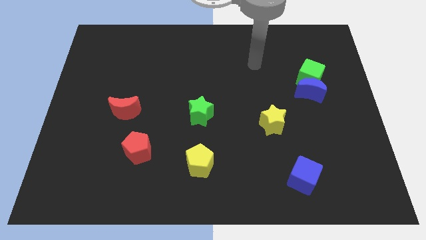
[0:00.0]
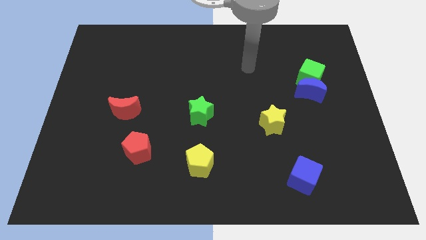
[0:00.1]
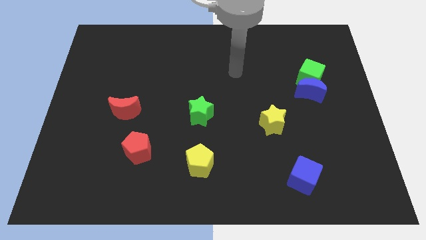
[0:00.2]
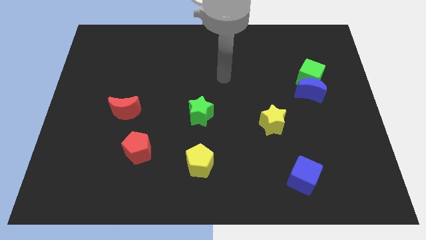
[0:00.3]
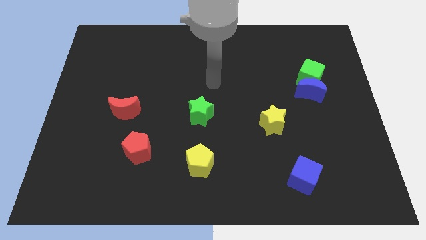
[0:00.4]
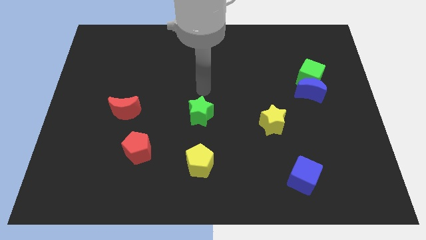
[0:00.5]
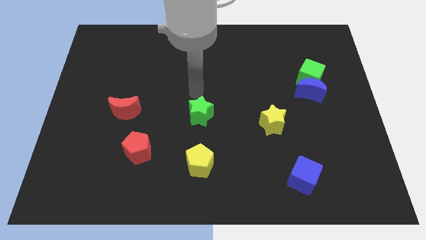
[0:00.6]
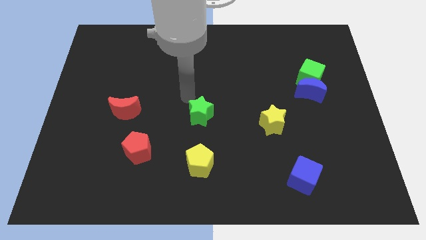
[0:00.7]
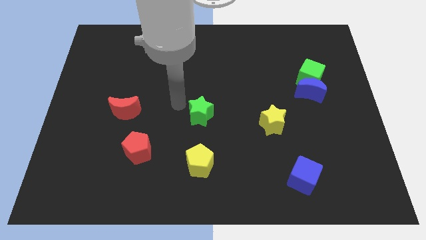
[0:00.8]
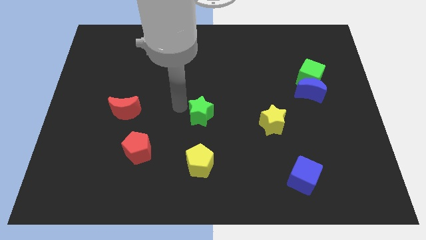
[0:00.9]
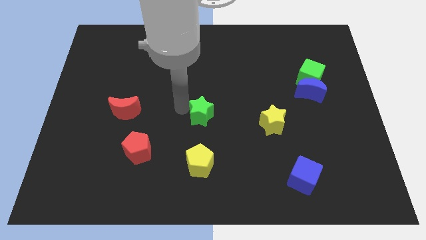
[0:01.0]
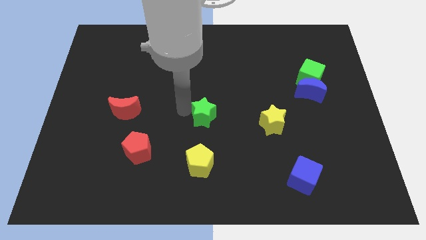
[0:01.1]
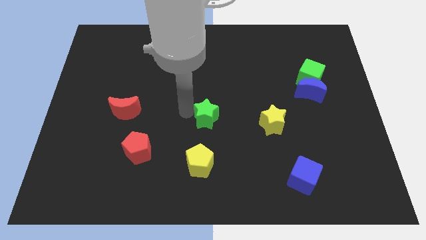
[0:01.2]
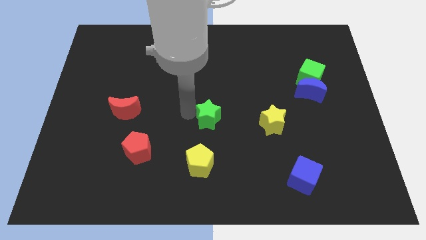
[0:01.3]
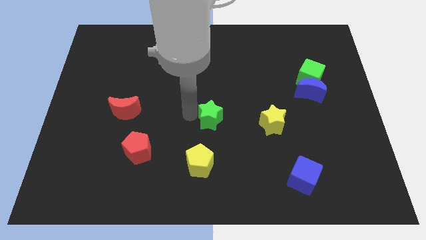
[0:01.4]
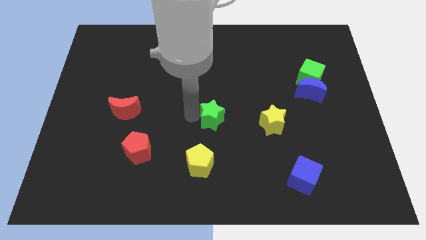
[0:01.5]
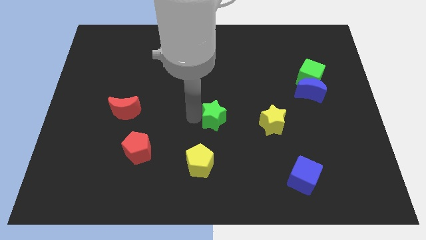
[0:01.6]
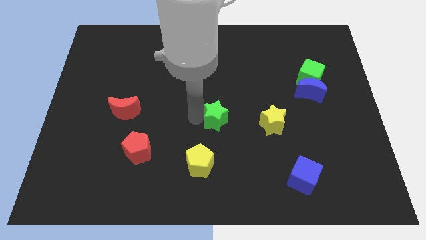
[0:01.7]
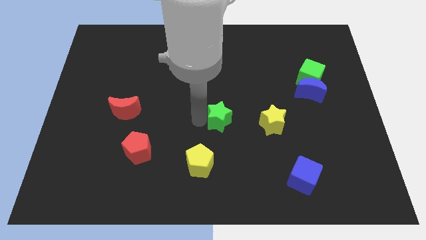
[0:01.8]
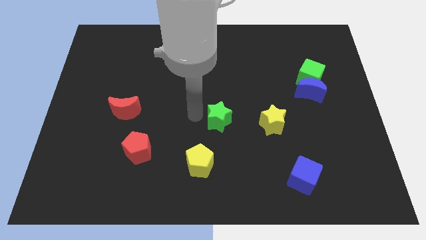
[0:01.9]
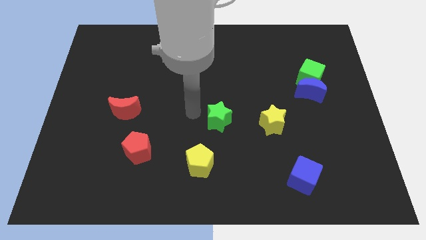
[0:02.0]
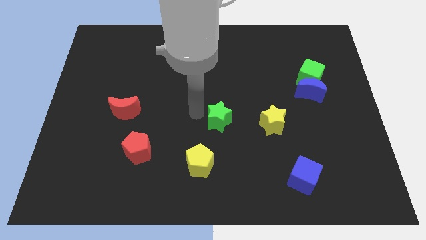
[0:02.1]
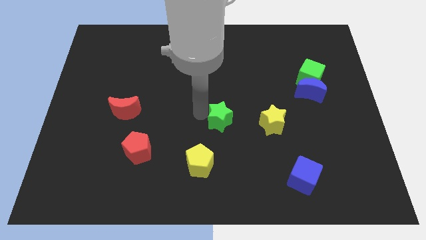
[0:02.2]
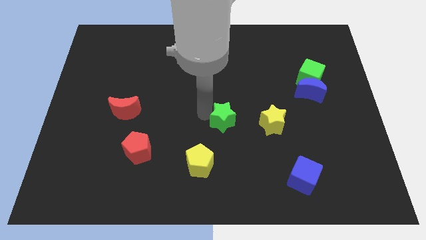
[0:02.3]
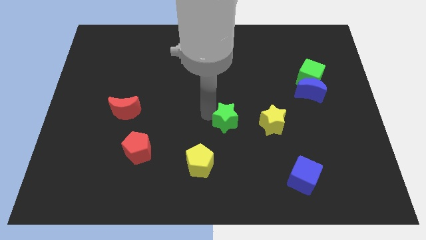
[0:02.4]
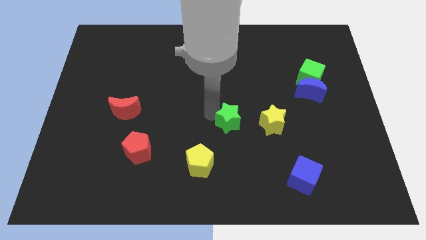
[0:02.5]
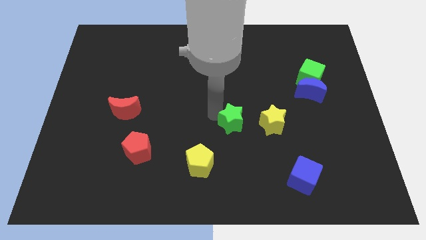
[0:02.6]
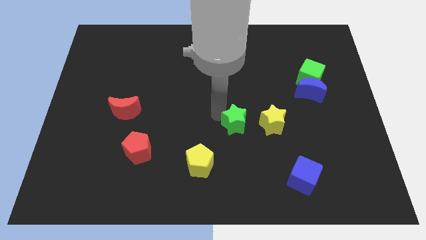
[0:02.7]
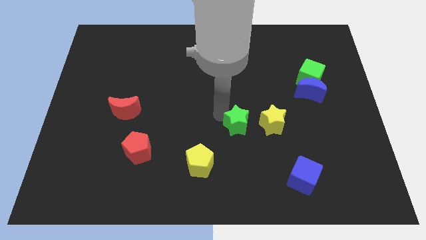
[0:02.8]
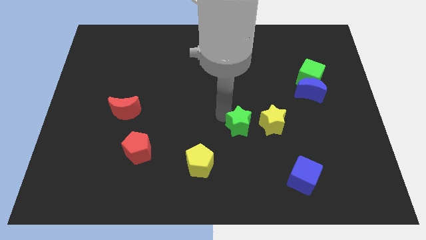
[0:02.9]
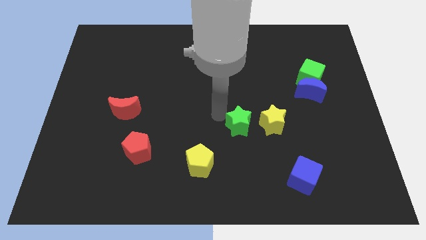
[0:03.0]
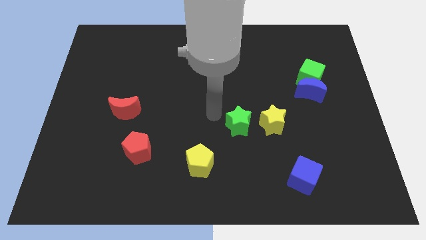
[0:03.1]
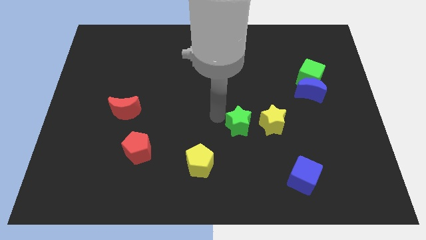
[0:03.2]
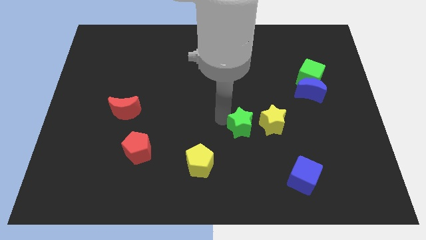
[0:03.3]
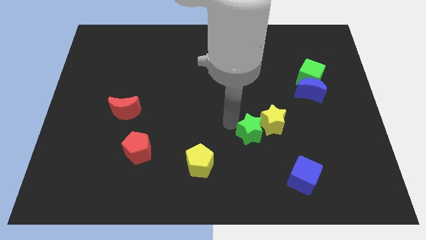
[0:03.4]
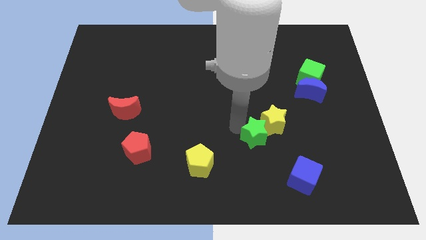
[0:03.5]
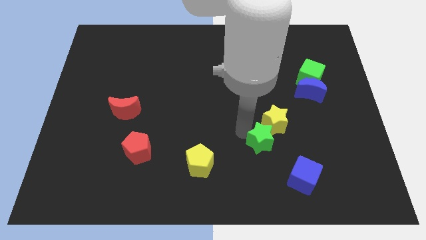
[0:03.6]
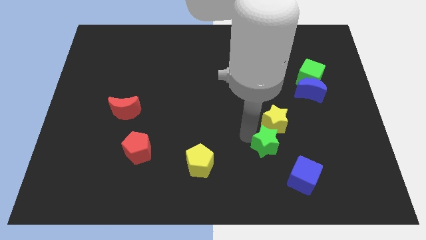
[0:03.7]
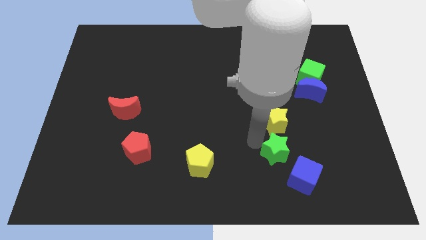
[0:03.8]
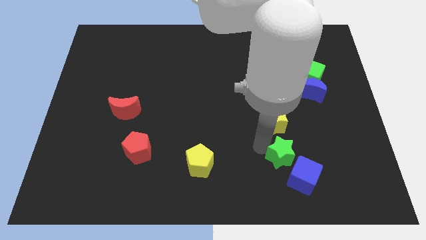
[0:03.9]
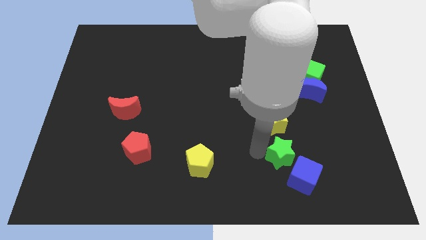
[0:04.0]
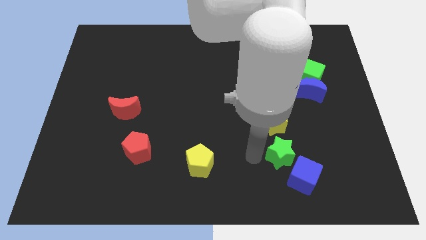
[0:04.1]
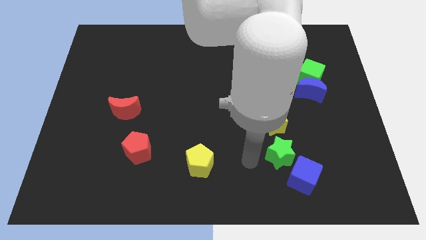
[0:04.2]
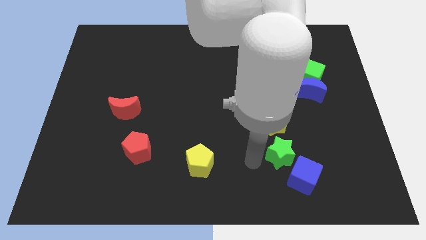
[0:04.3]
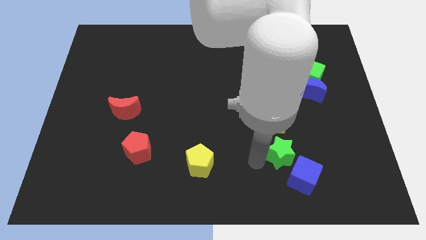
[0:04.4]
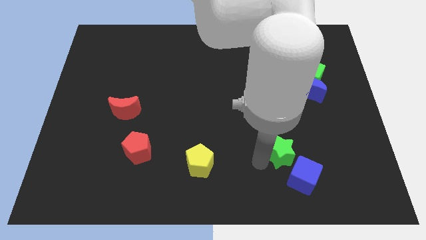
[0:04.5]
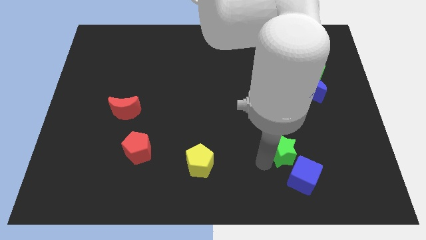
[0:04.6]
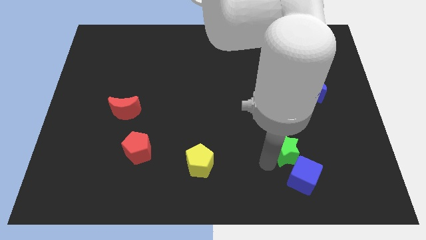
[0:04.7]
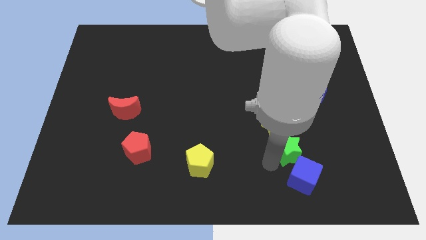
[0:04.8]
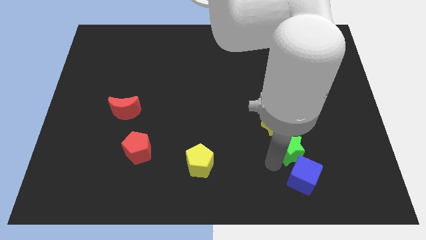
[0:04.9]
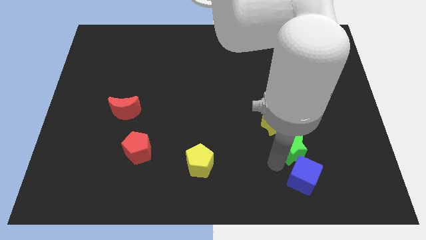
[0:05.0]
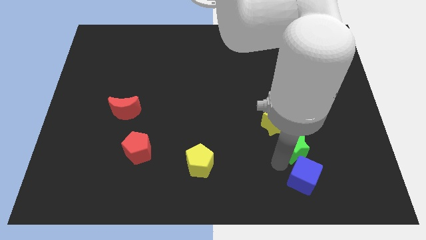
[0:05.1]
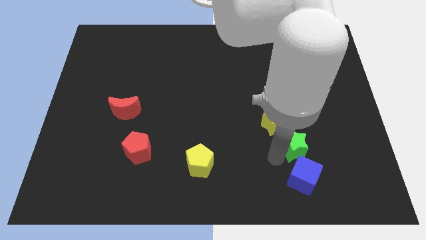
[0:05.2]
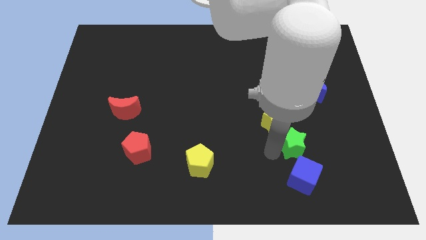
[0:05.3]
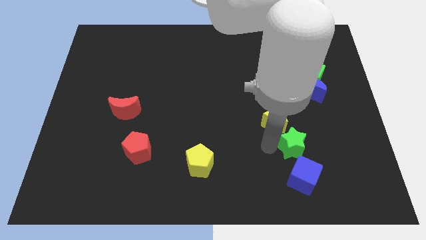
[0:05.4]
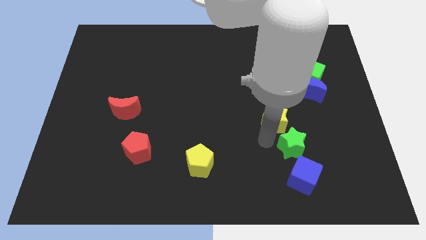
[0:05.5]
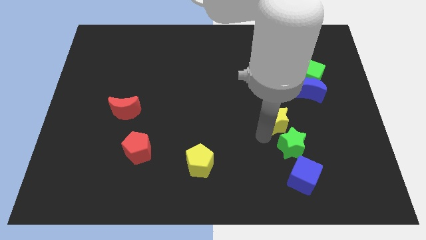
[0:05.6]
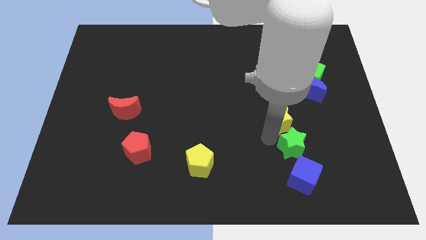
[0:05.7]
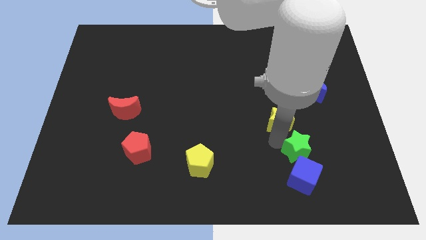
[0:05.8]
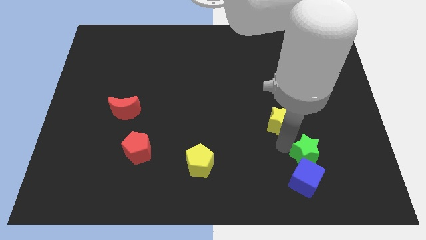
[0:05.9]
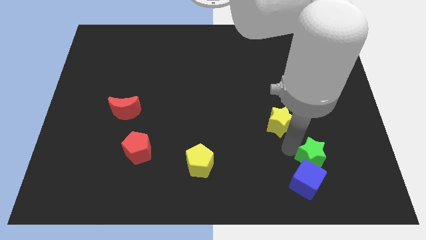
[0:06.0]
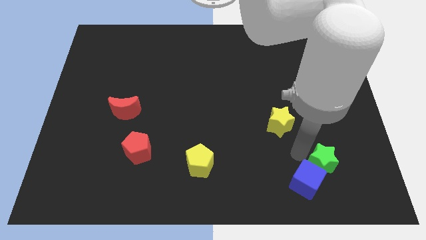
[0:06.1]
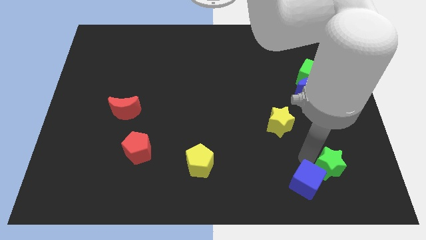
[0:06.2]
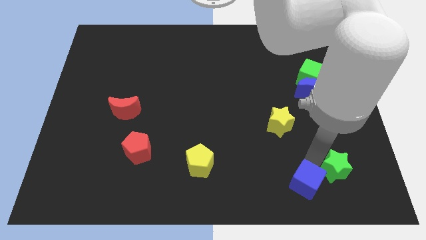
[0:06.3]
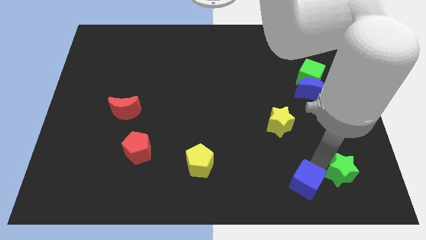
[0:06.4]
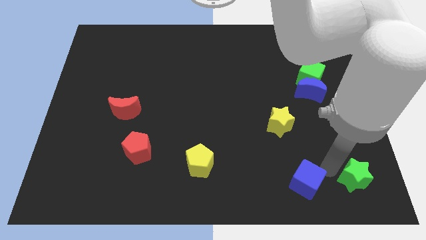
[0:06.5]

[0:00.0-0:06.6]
push the green star to the bottom right corner
